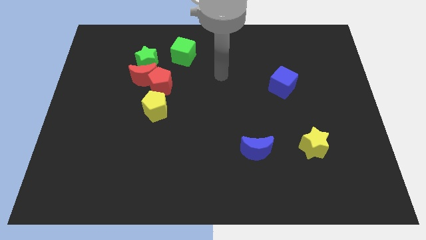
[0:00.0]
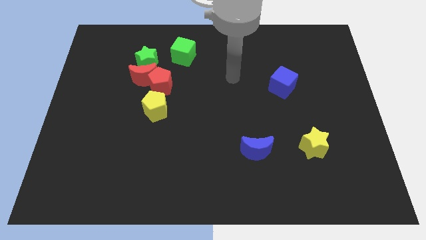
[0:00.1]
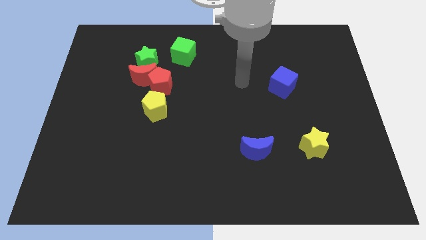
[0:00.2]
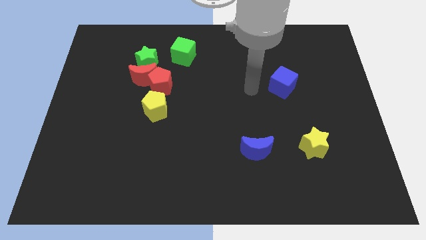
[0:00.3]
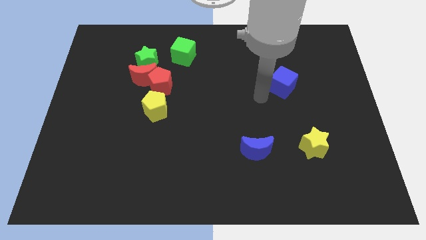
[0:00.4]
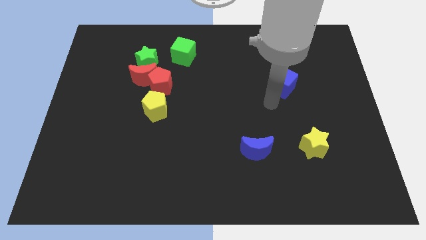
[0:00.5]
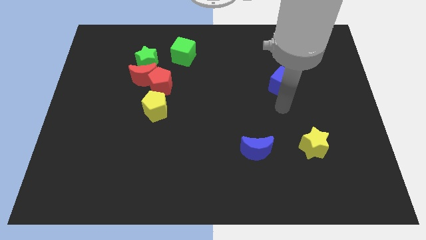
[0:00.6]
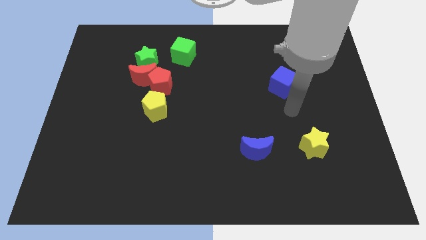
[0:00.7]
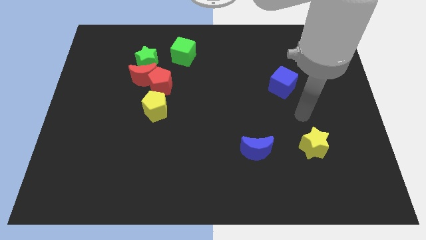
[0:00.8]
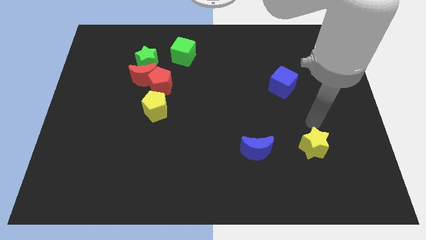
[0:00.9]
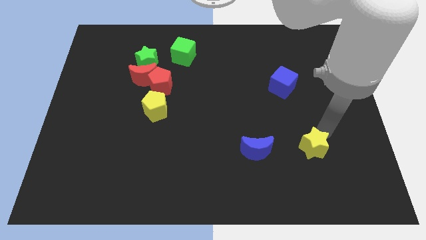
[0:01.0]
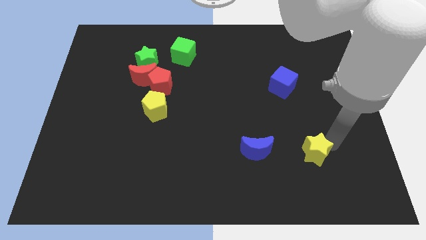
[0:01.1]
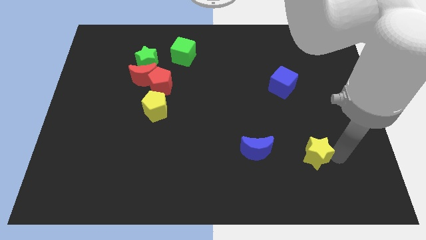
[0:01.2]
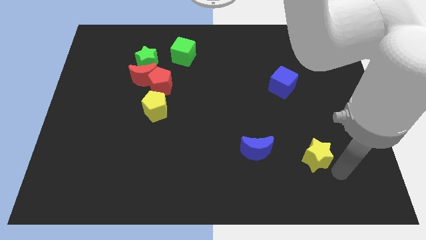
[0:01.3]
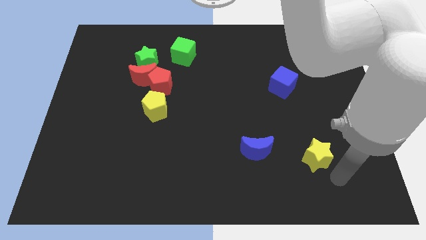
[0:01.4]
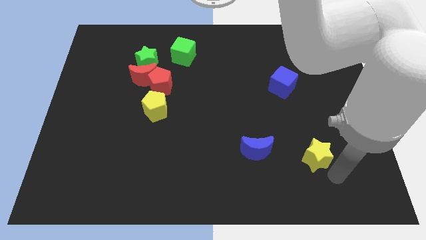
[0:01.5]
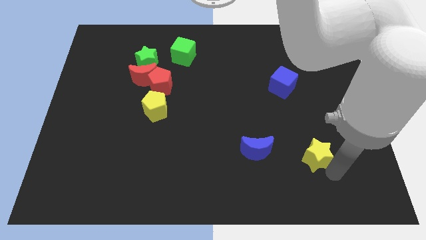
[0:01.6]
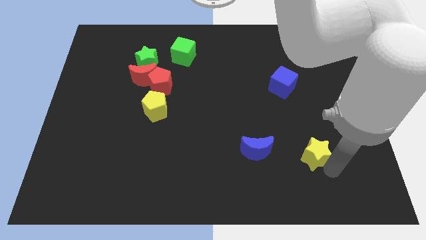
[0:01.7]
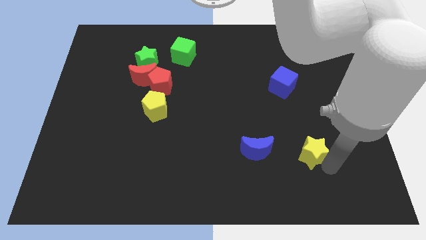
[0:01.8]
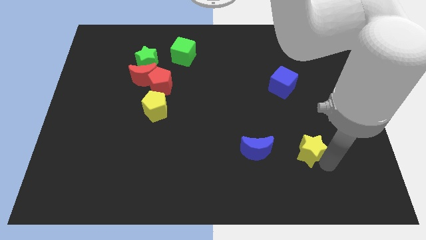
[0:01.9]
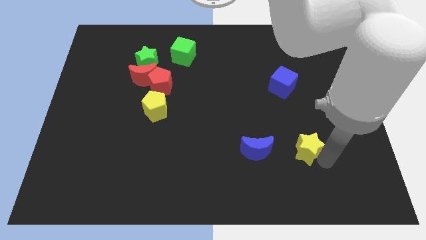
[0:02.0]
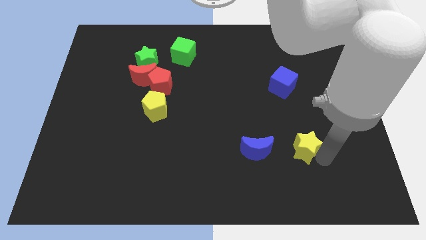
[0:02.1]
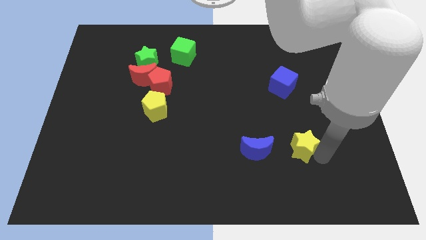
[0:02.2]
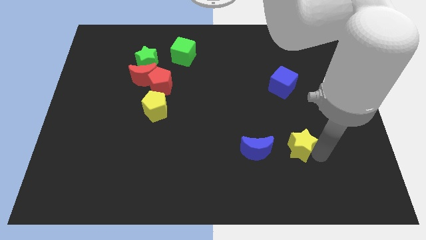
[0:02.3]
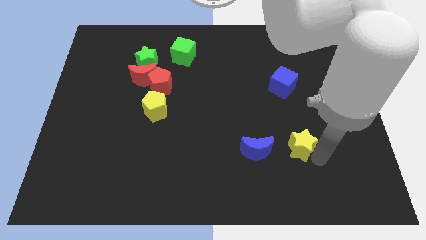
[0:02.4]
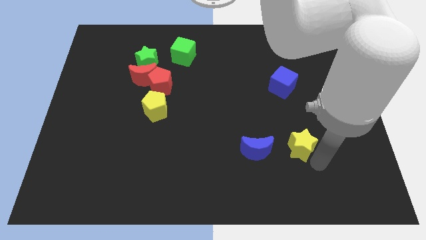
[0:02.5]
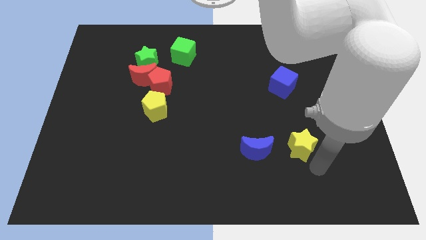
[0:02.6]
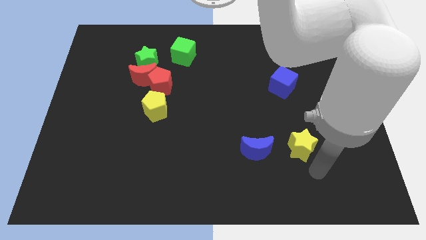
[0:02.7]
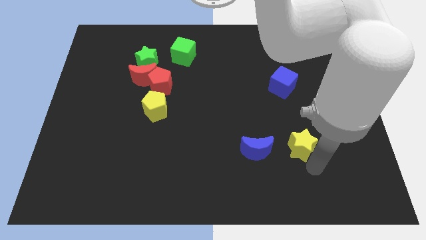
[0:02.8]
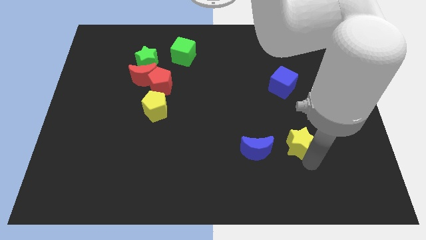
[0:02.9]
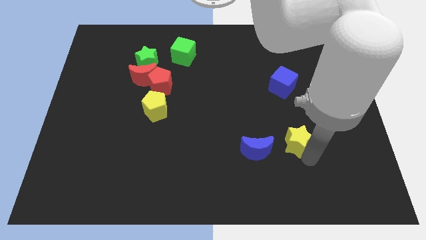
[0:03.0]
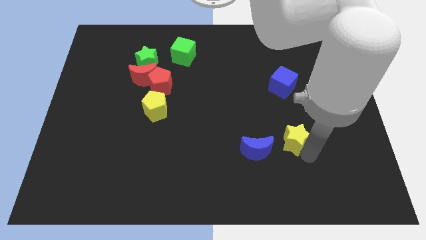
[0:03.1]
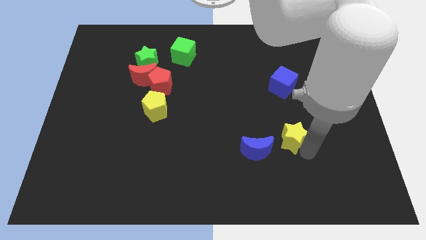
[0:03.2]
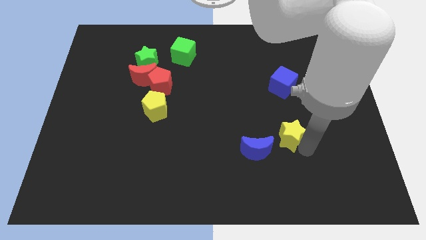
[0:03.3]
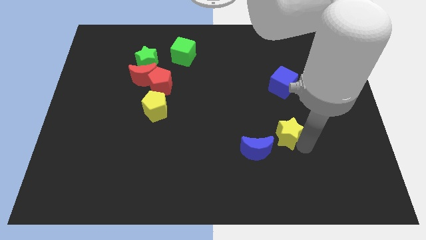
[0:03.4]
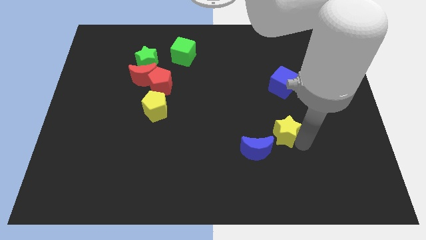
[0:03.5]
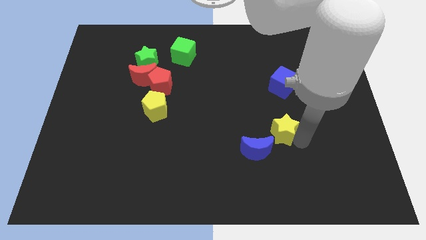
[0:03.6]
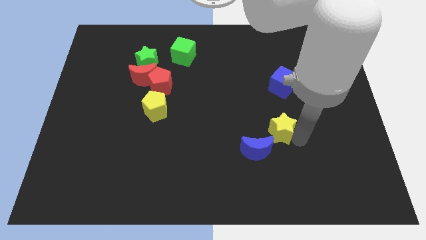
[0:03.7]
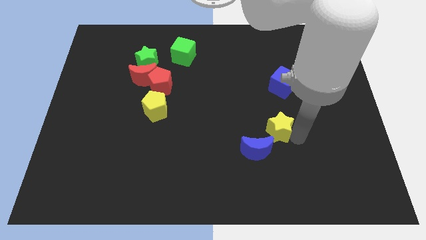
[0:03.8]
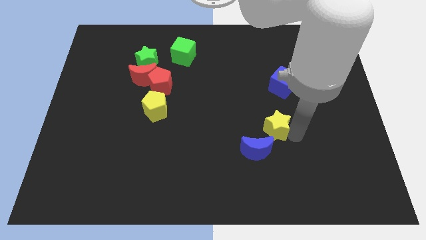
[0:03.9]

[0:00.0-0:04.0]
slide the yellow star a little left

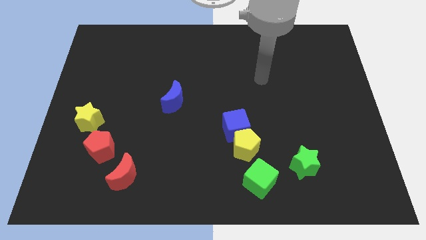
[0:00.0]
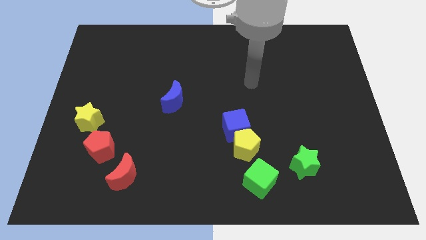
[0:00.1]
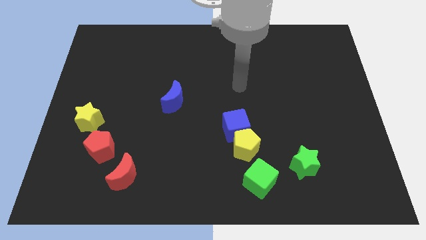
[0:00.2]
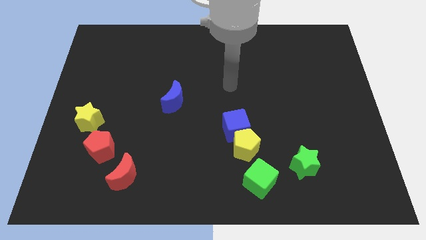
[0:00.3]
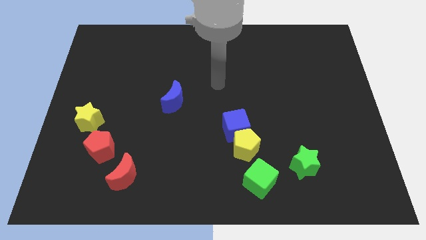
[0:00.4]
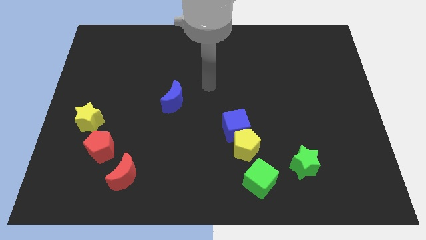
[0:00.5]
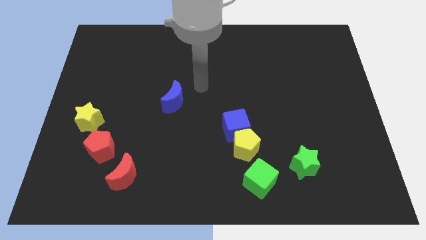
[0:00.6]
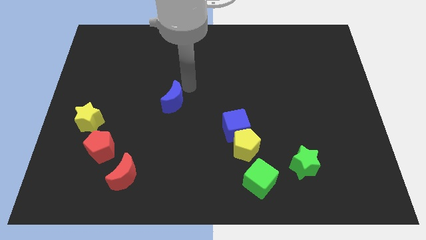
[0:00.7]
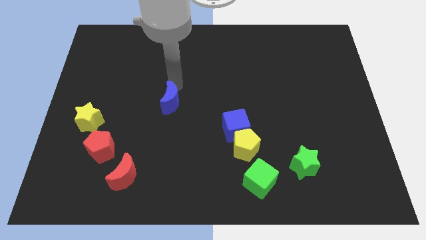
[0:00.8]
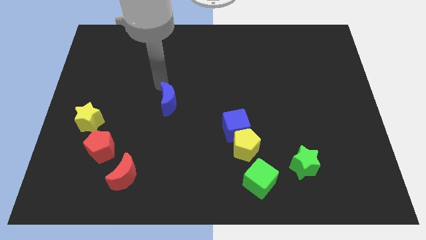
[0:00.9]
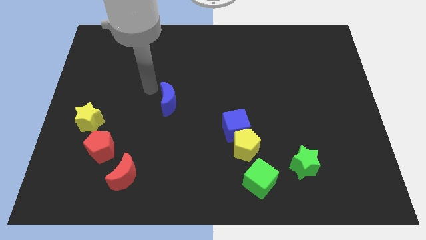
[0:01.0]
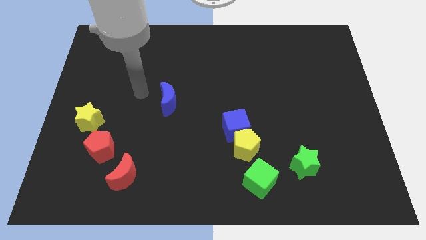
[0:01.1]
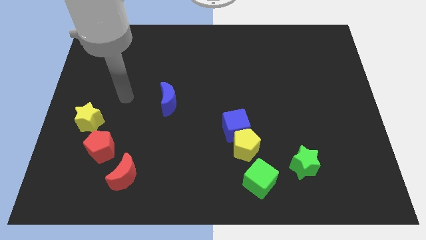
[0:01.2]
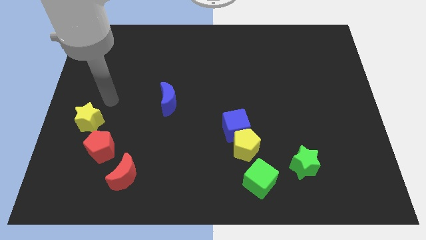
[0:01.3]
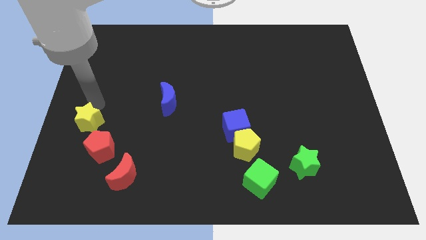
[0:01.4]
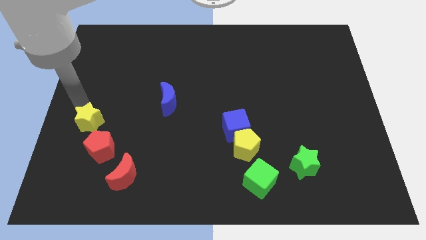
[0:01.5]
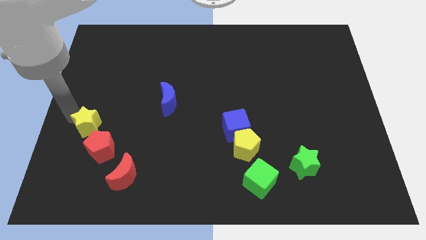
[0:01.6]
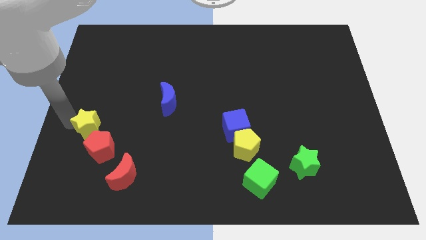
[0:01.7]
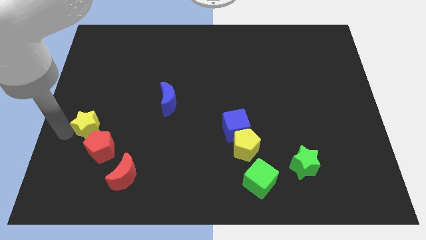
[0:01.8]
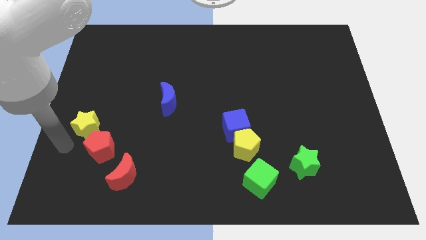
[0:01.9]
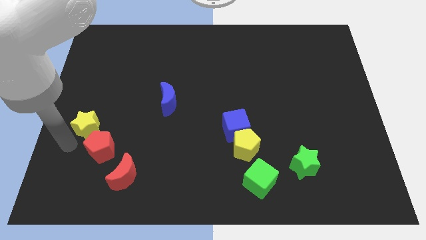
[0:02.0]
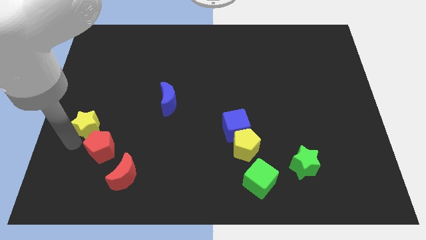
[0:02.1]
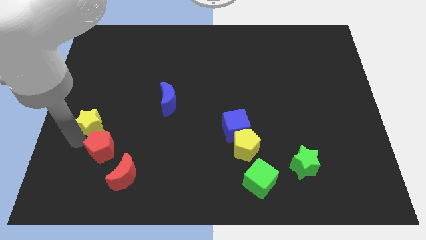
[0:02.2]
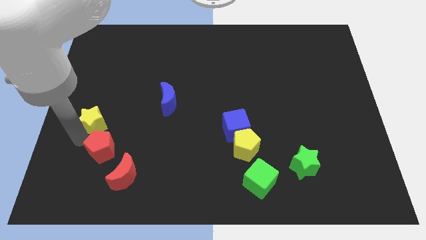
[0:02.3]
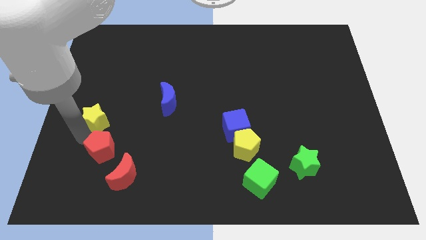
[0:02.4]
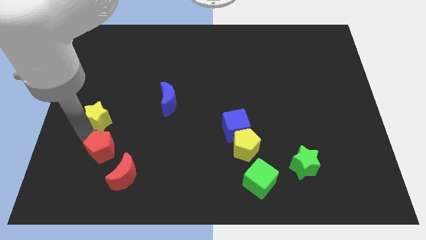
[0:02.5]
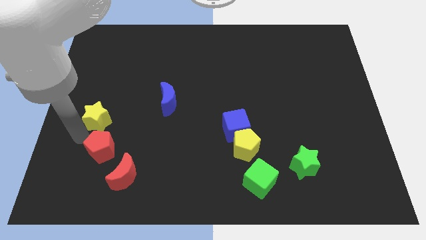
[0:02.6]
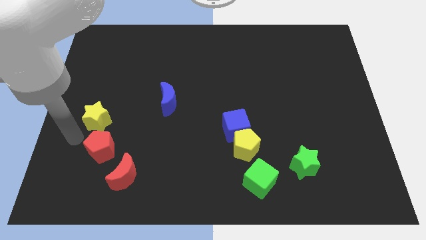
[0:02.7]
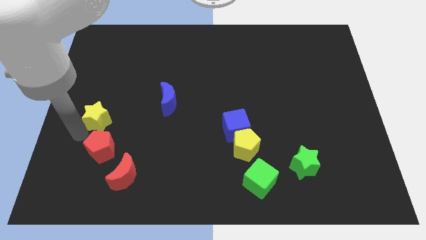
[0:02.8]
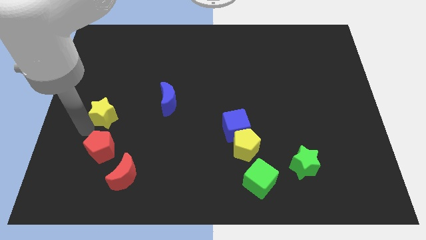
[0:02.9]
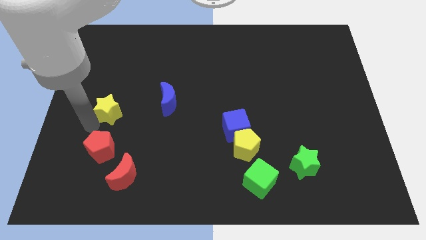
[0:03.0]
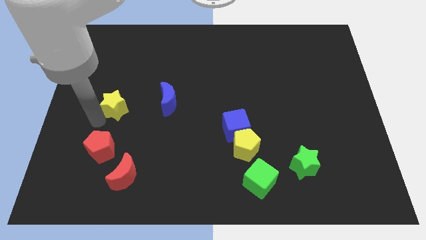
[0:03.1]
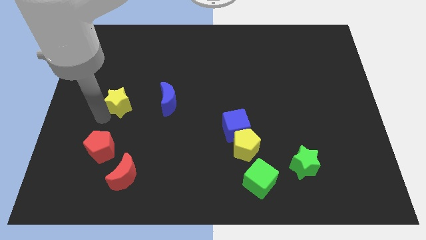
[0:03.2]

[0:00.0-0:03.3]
slightly push the yellow star diagonally upwards and right

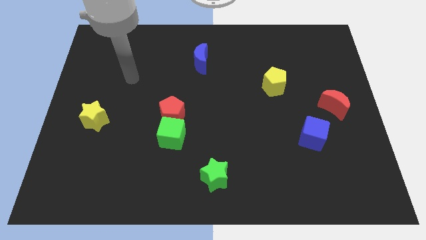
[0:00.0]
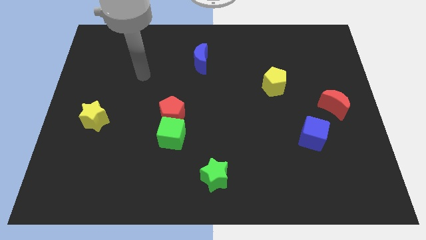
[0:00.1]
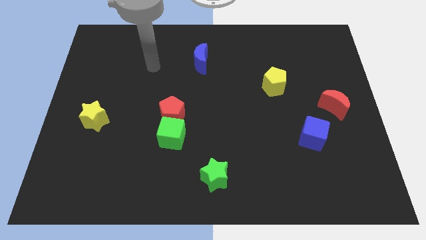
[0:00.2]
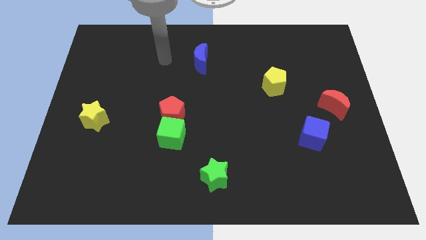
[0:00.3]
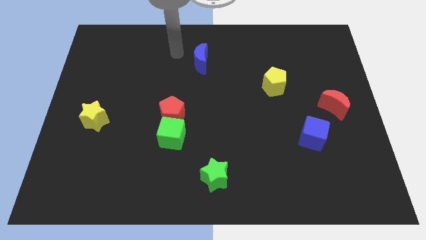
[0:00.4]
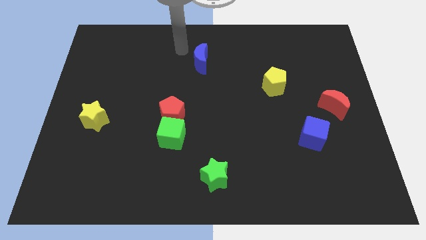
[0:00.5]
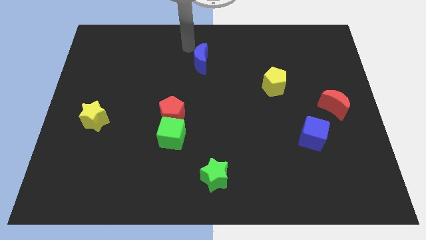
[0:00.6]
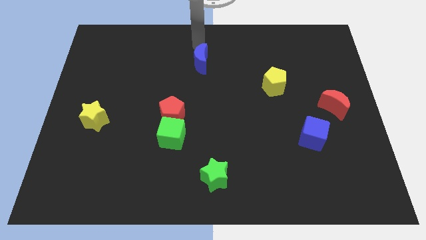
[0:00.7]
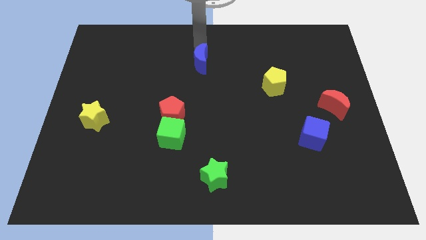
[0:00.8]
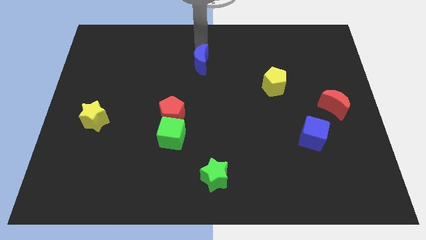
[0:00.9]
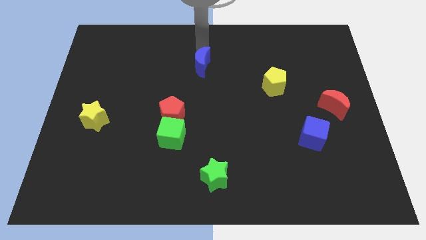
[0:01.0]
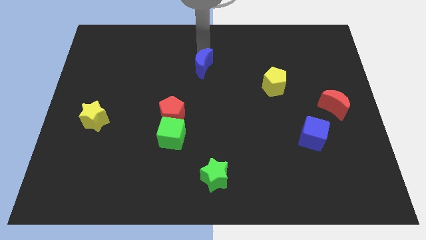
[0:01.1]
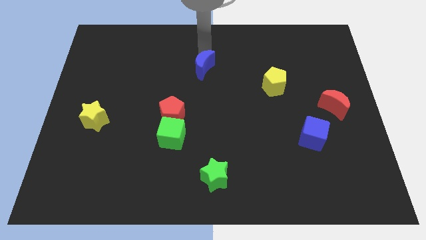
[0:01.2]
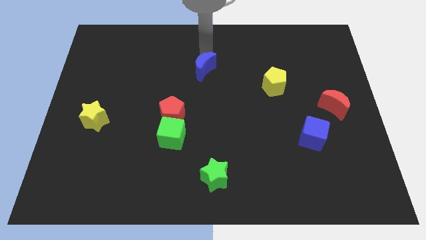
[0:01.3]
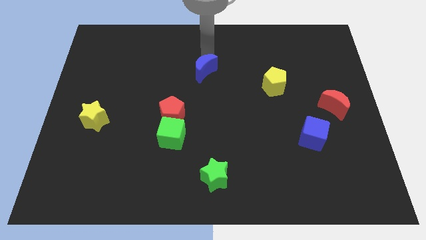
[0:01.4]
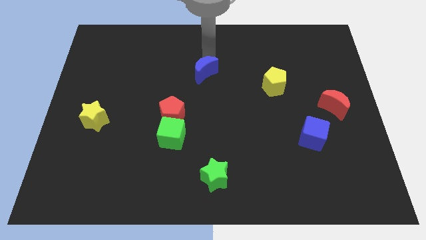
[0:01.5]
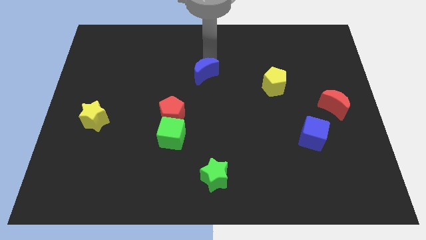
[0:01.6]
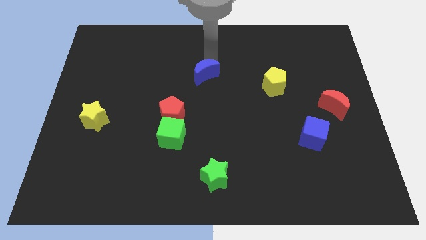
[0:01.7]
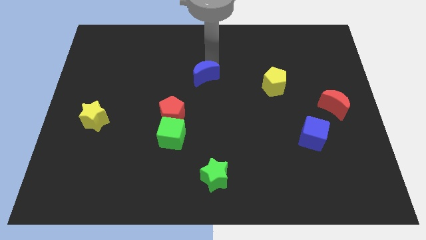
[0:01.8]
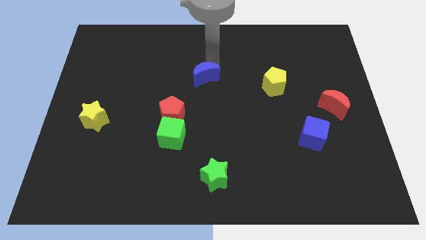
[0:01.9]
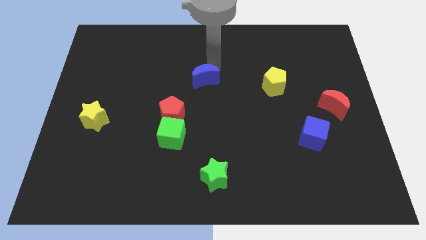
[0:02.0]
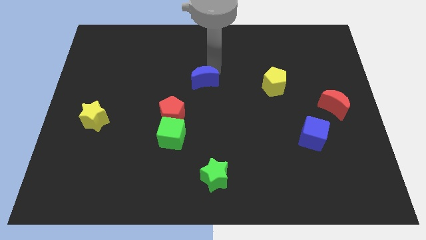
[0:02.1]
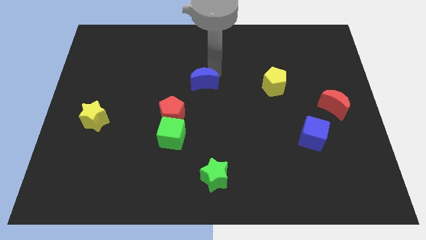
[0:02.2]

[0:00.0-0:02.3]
push the blue moon a little bit down
